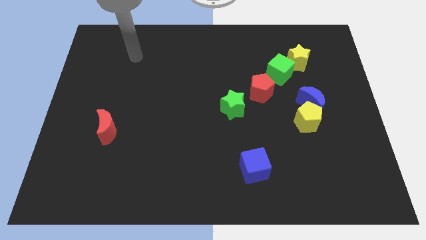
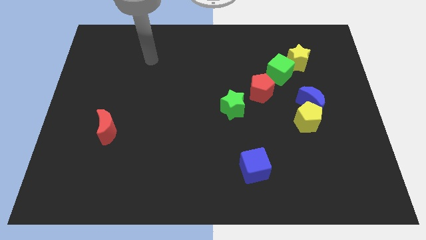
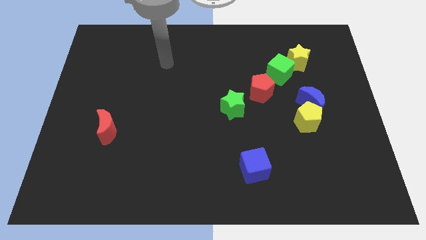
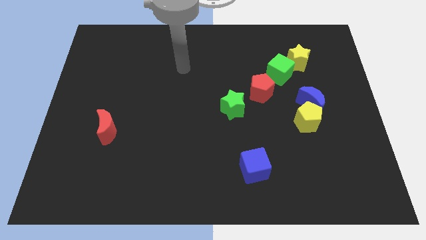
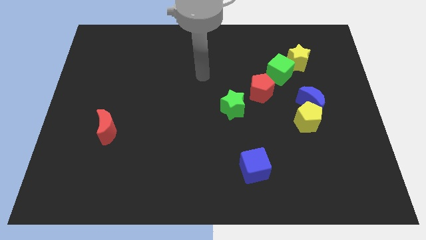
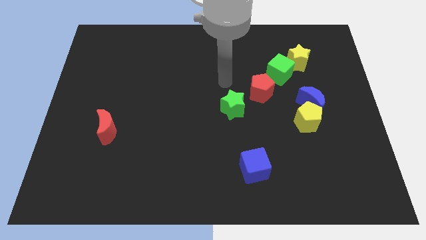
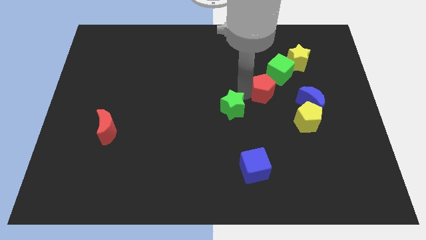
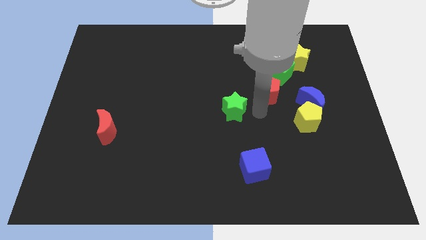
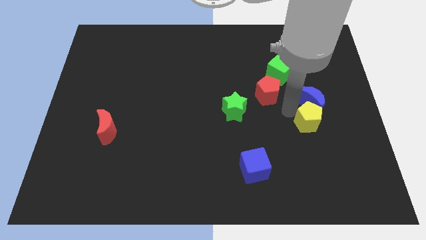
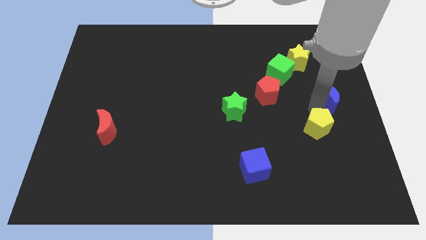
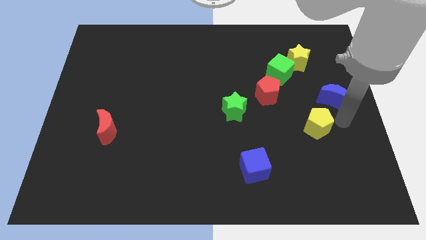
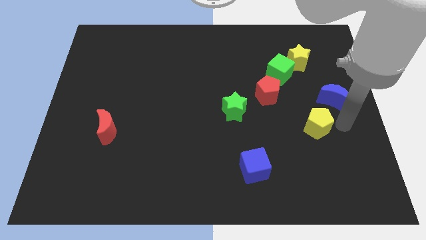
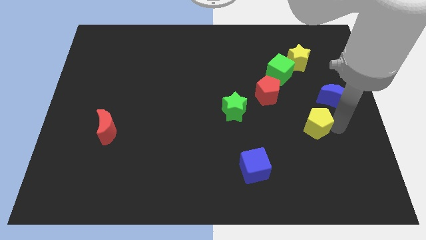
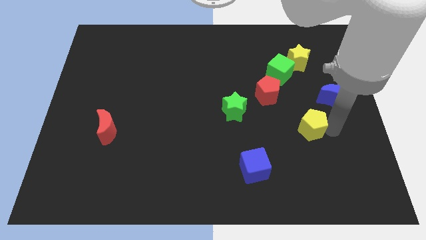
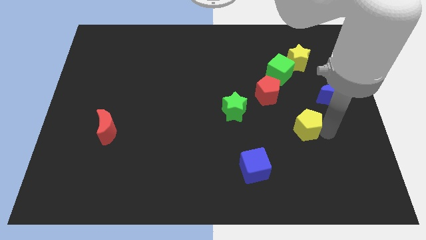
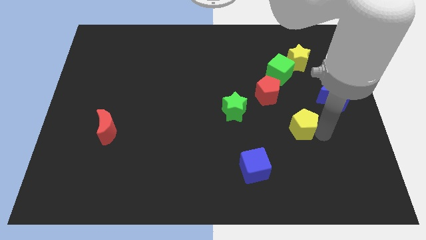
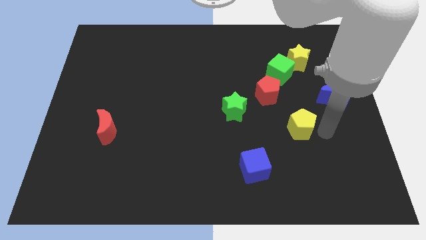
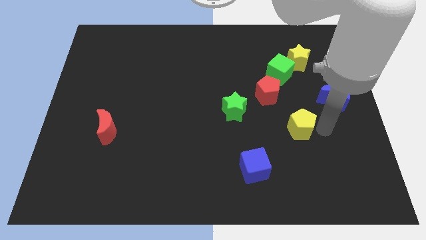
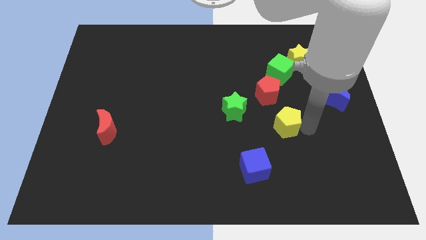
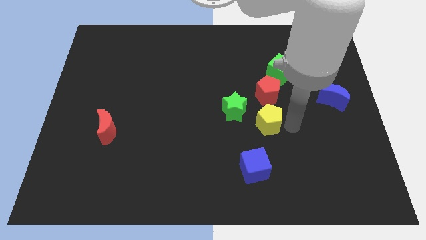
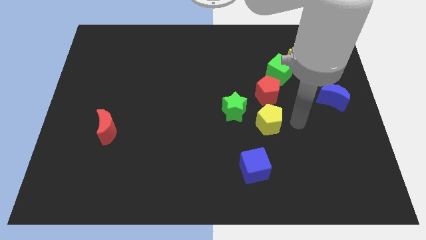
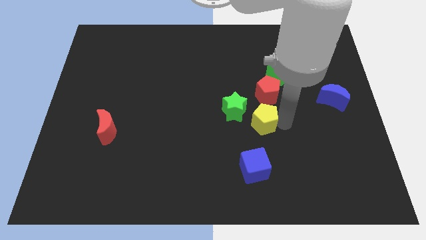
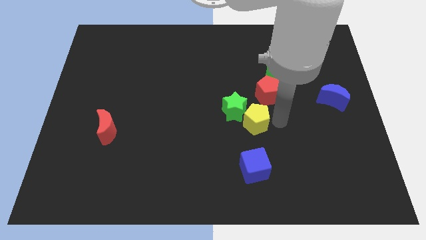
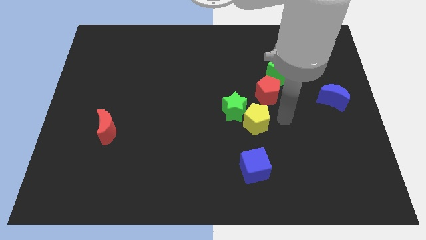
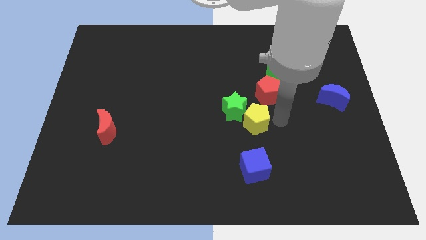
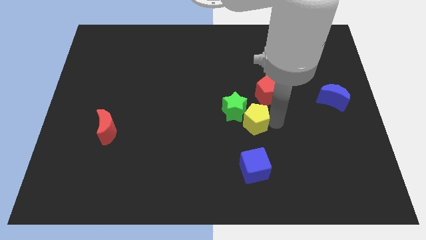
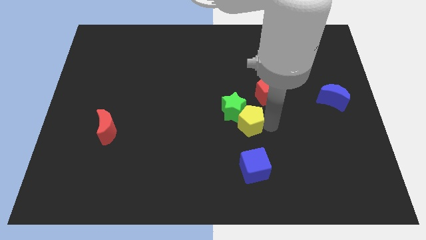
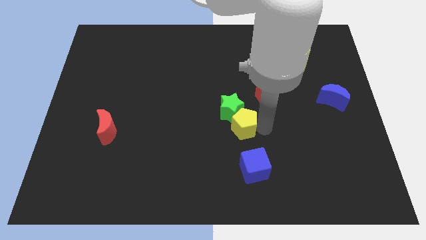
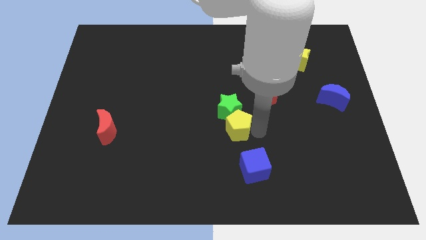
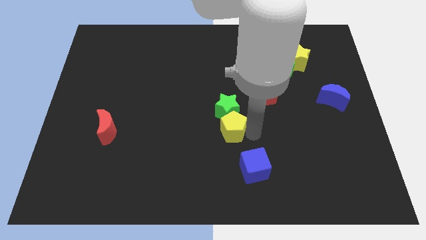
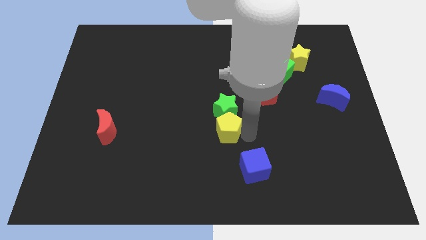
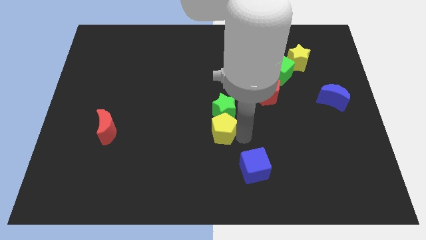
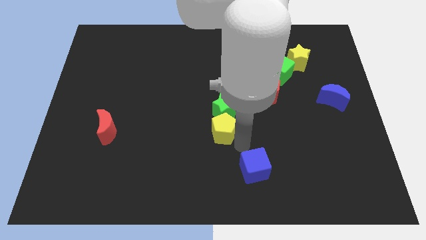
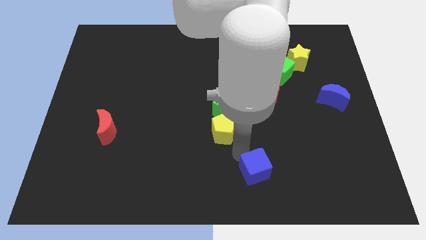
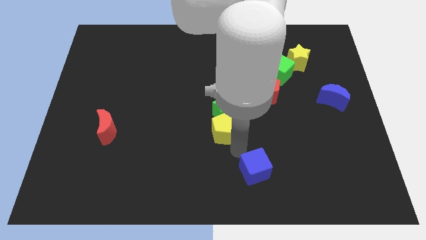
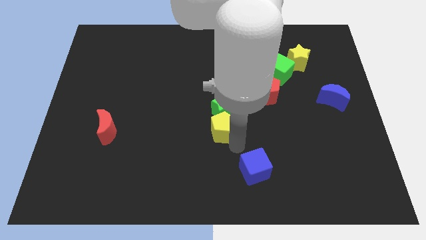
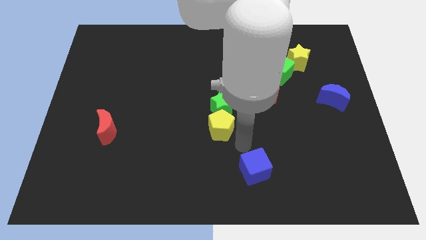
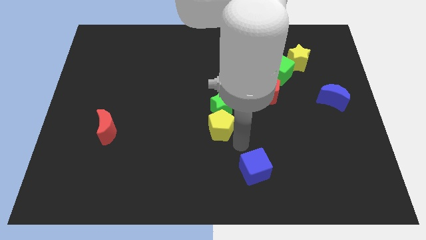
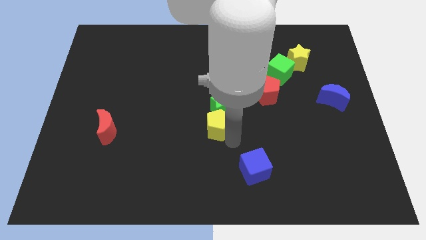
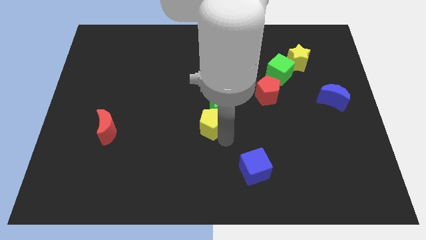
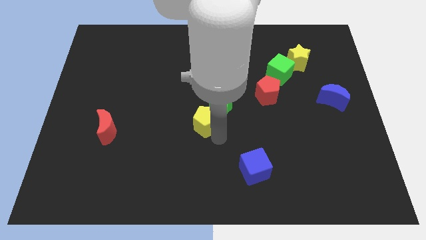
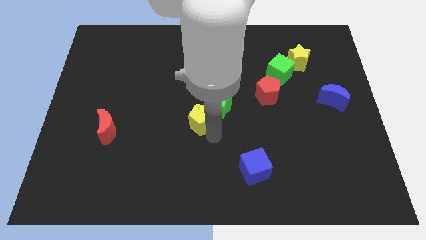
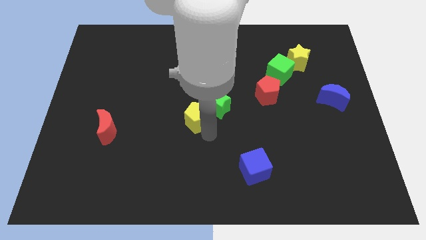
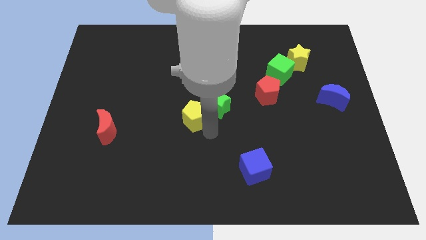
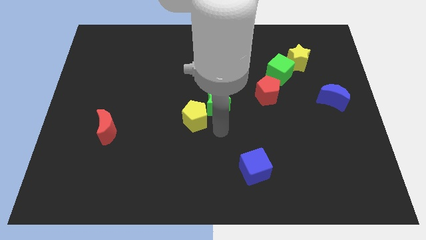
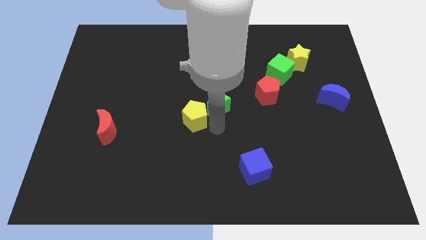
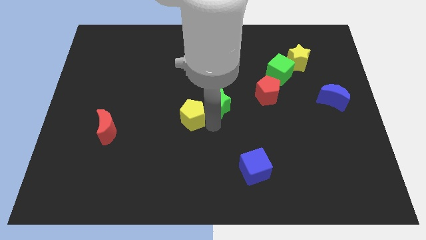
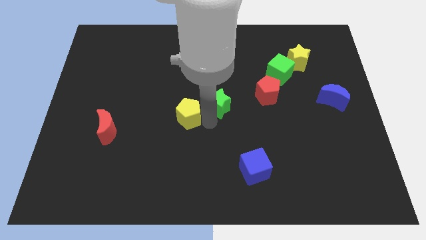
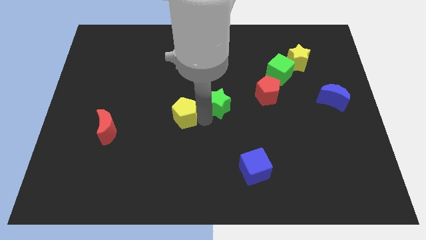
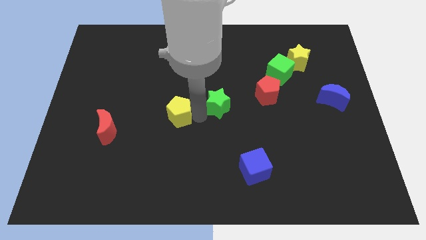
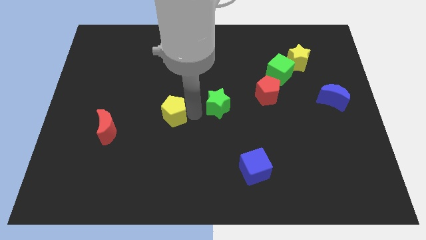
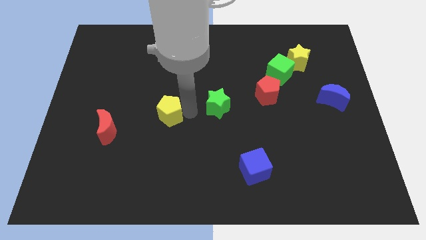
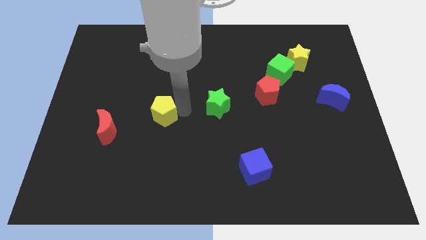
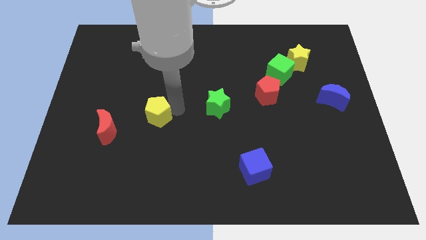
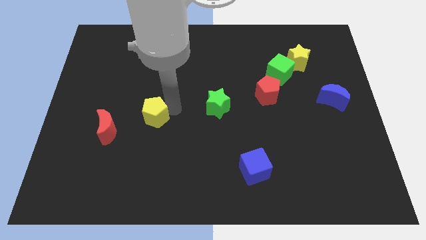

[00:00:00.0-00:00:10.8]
slide the yellow pentagon to the top right side of the red moon

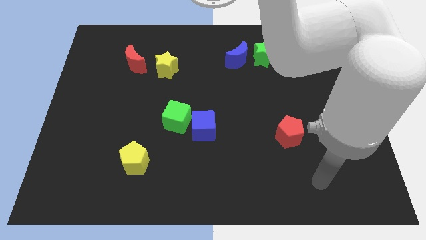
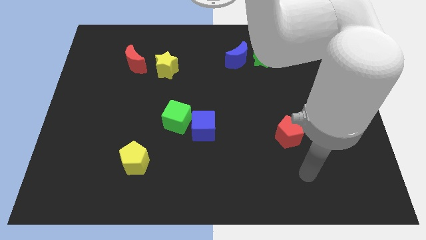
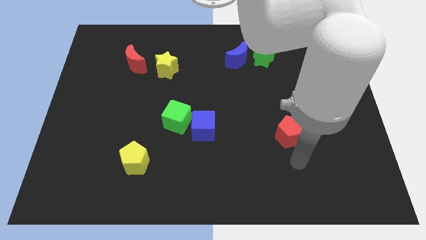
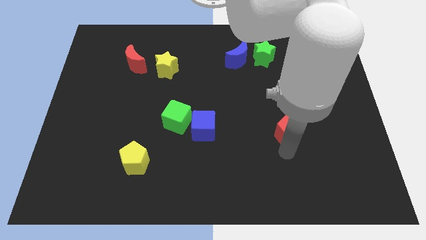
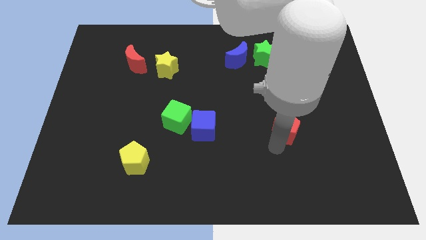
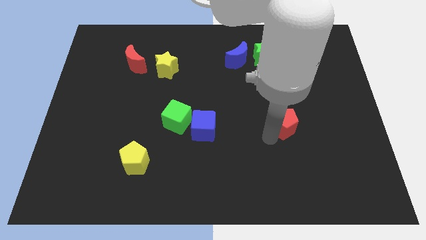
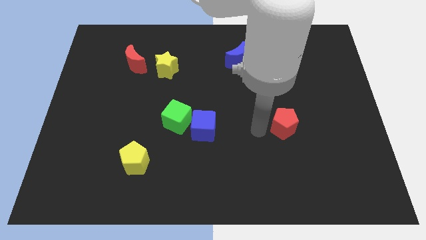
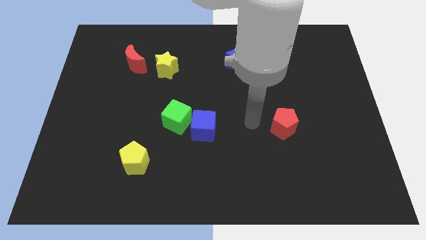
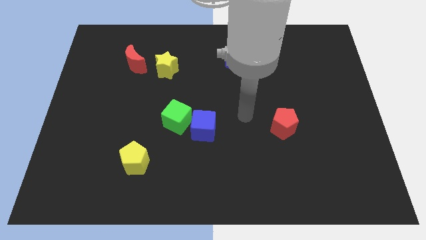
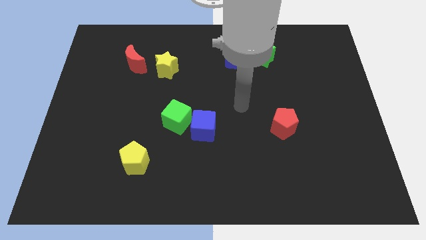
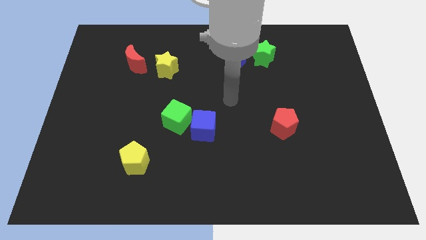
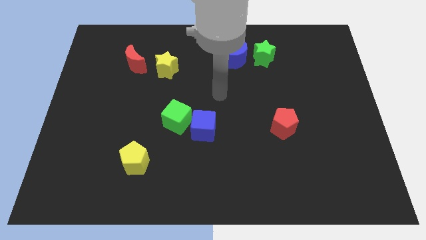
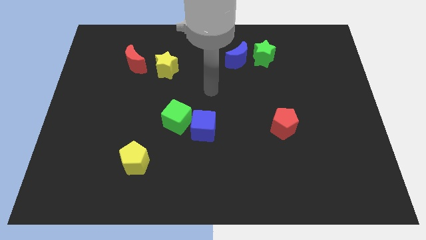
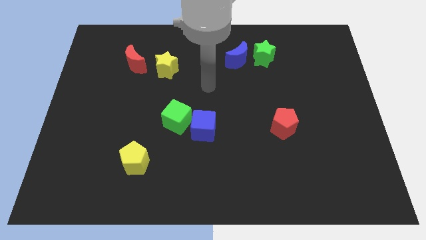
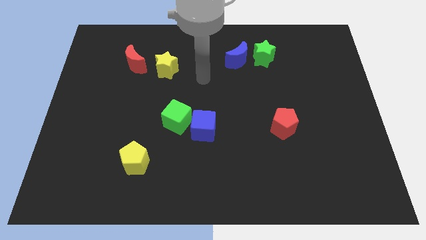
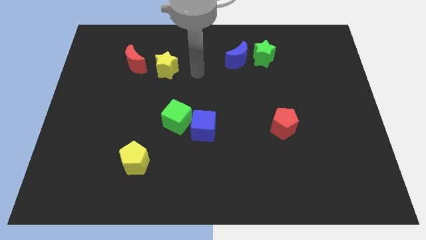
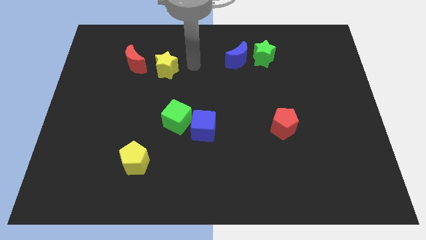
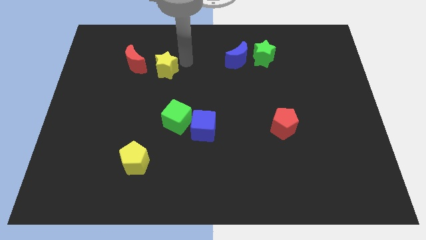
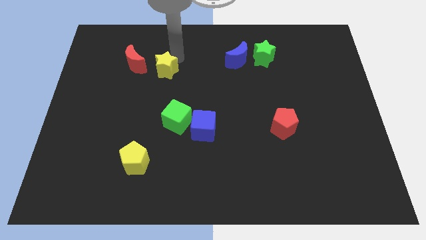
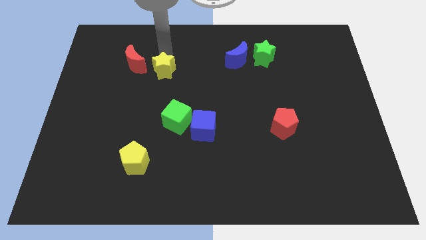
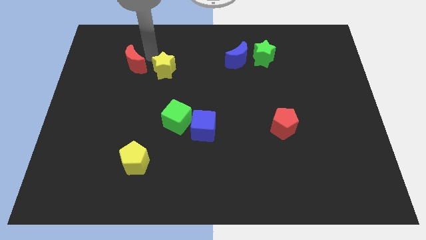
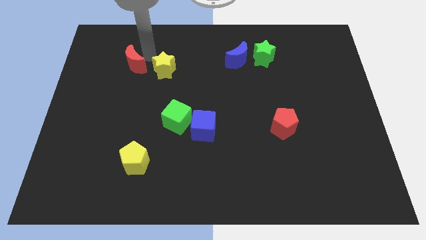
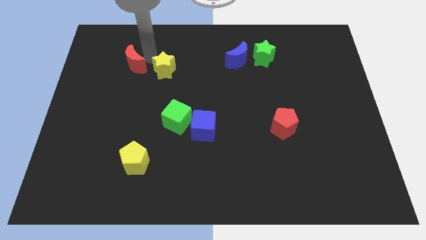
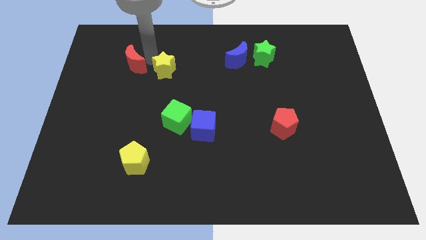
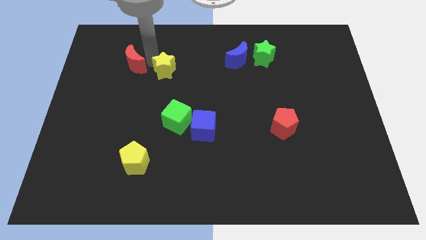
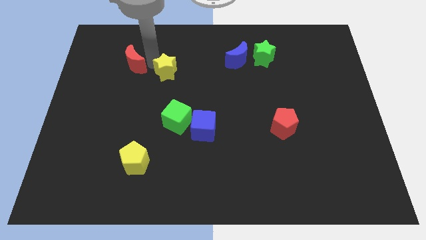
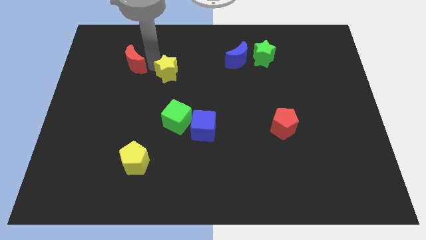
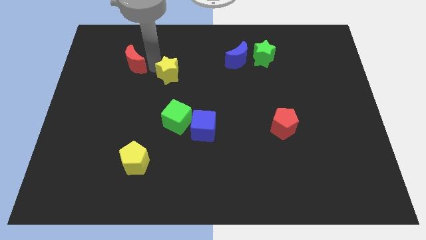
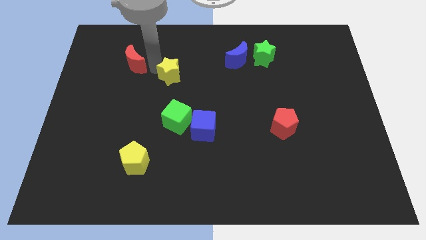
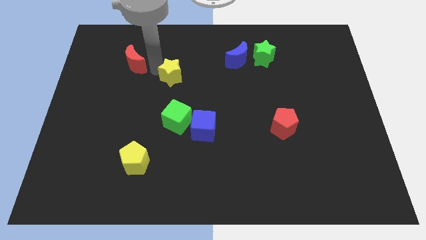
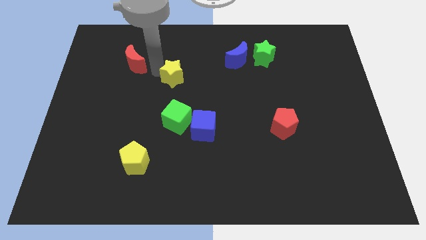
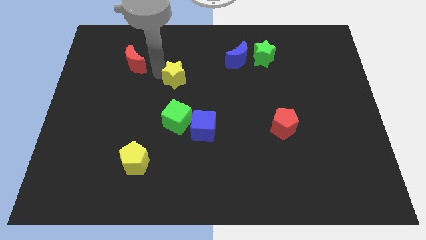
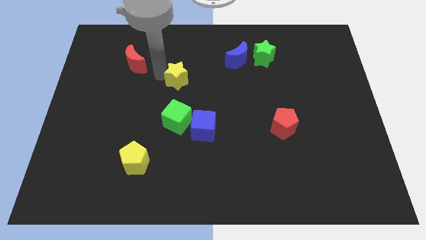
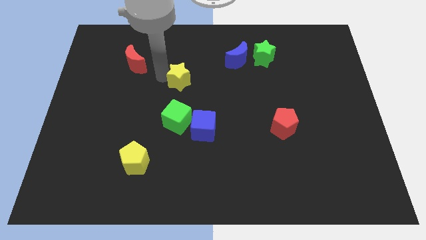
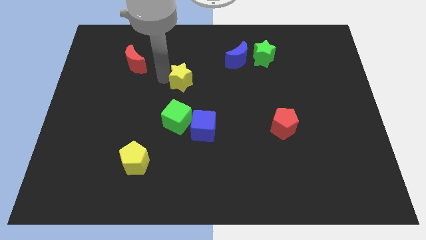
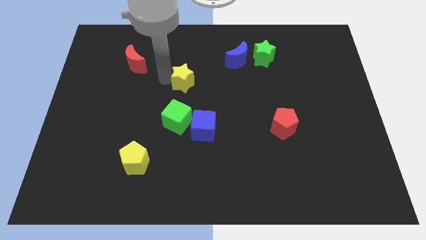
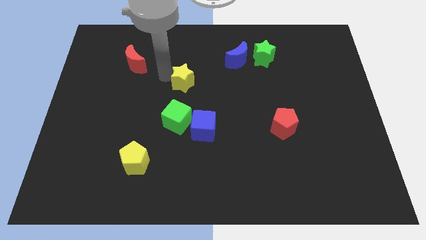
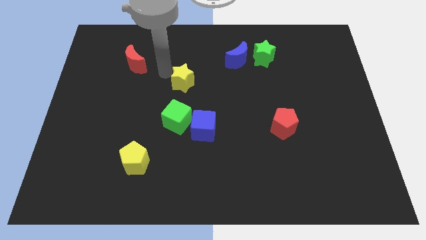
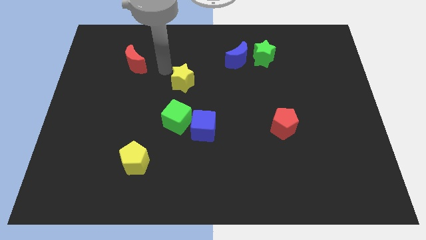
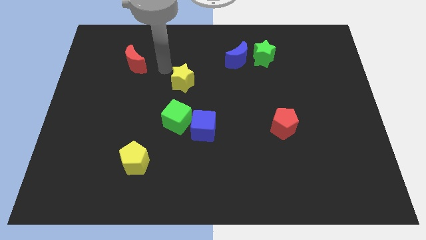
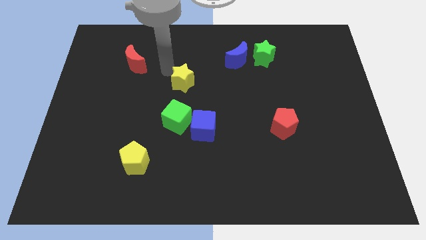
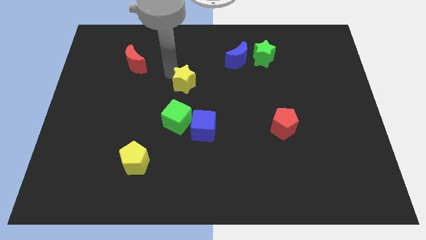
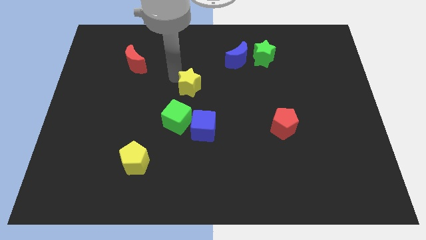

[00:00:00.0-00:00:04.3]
slide the yellow star above the blue cube
